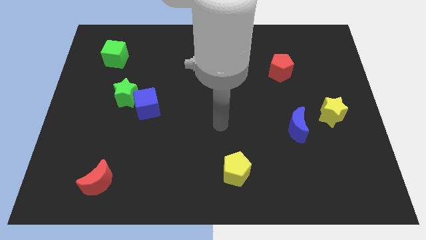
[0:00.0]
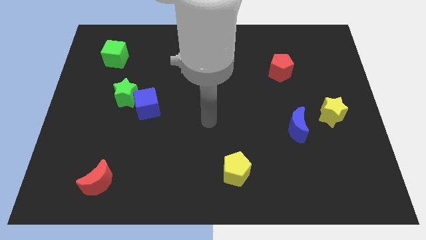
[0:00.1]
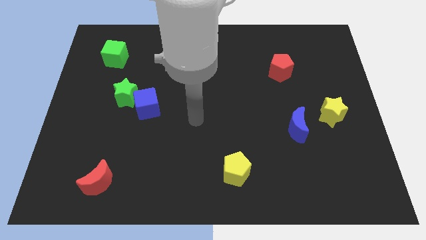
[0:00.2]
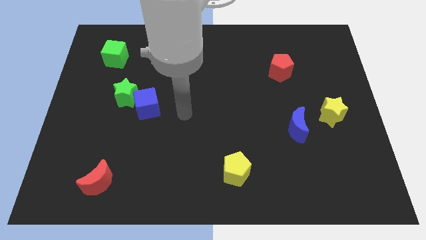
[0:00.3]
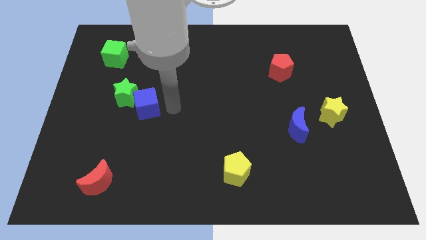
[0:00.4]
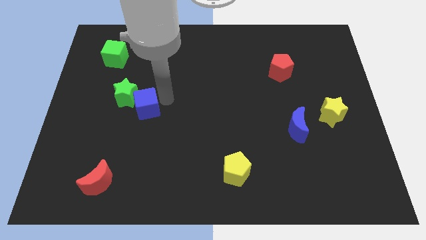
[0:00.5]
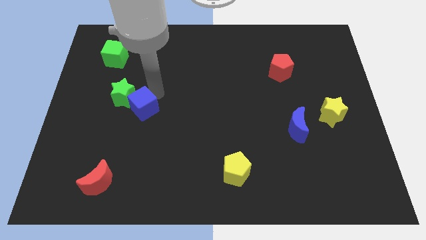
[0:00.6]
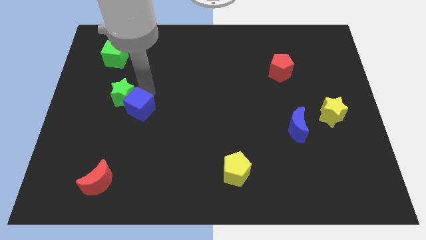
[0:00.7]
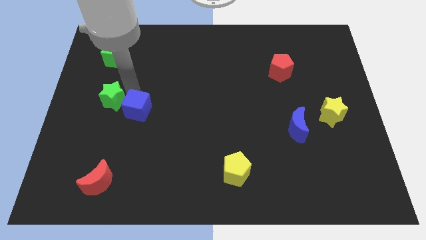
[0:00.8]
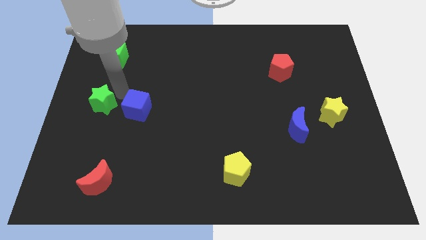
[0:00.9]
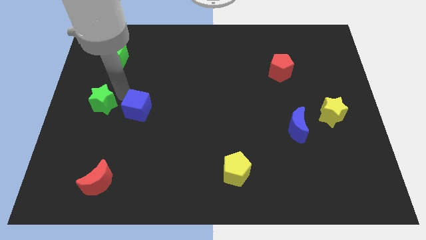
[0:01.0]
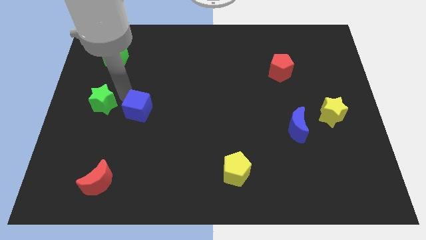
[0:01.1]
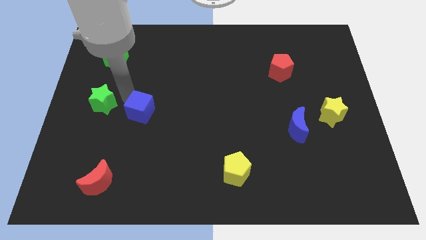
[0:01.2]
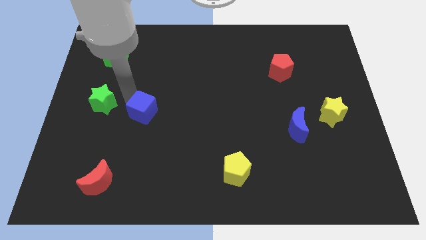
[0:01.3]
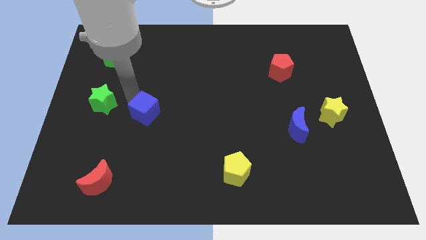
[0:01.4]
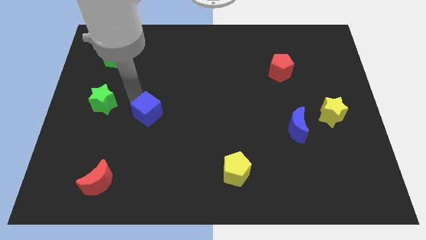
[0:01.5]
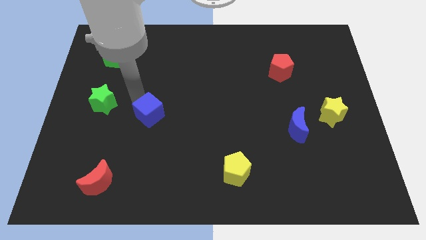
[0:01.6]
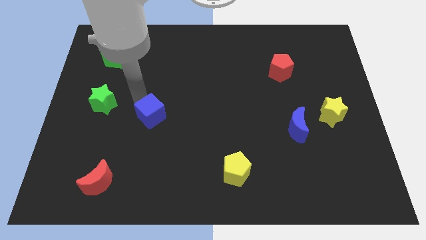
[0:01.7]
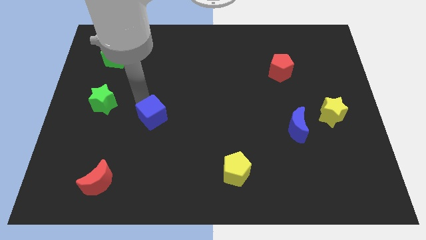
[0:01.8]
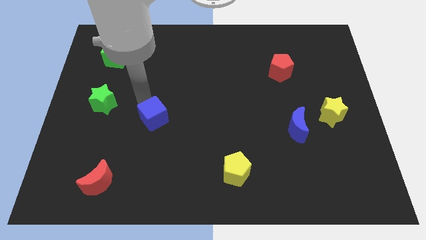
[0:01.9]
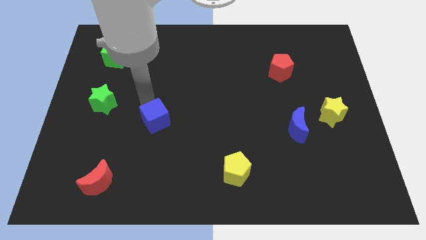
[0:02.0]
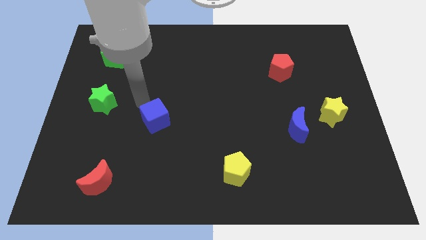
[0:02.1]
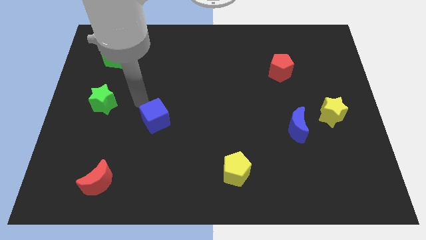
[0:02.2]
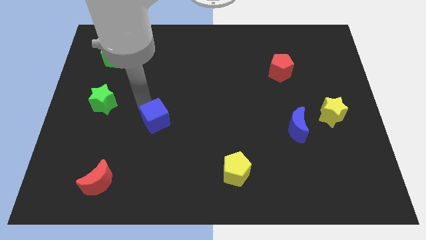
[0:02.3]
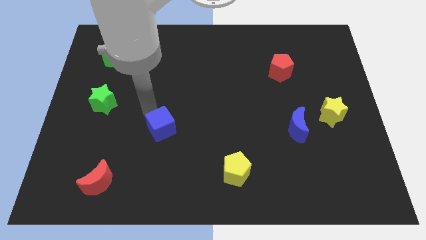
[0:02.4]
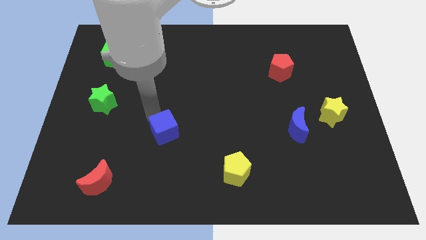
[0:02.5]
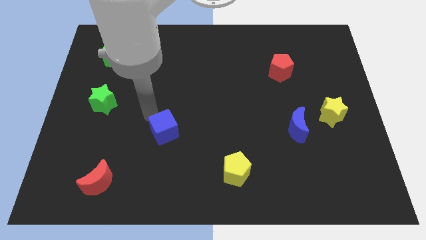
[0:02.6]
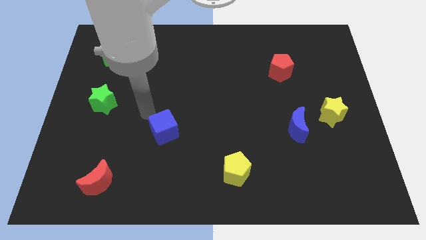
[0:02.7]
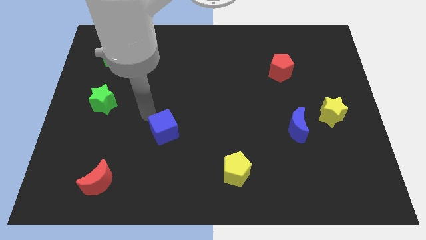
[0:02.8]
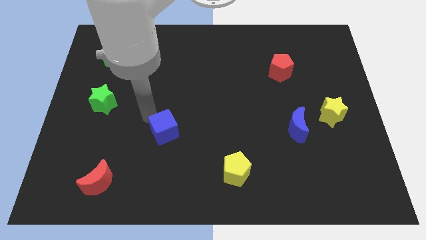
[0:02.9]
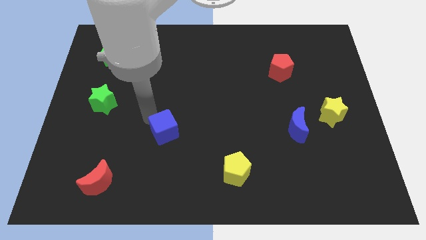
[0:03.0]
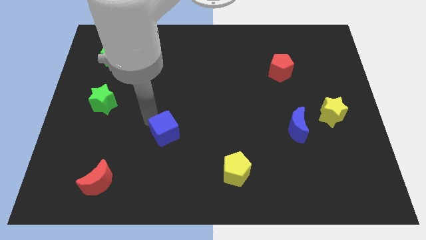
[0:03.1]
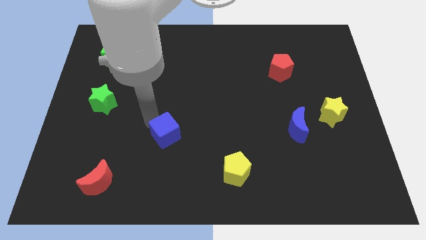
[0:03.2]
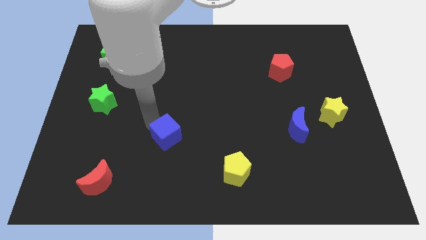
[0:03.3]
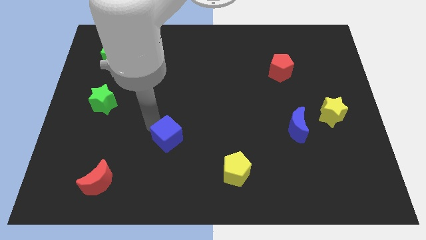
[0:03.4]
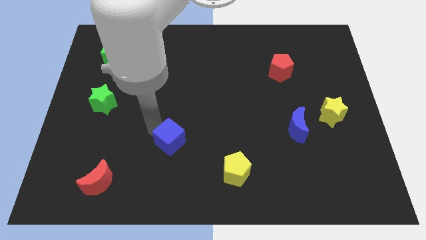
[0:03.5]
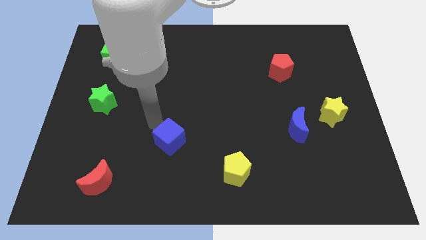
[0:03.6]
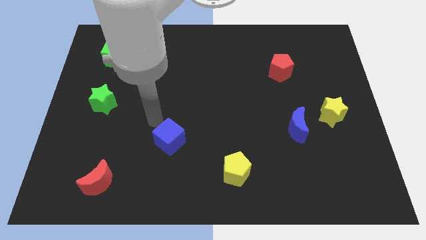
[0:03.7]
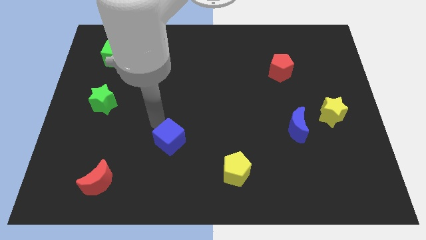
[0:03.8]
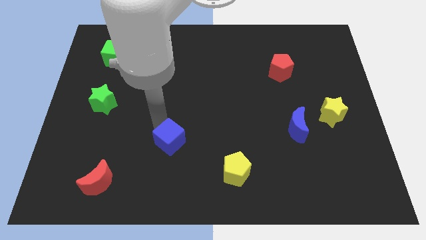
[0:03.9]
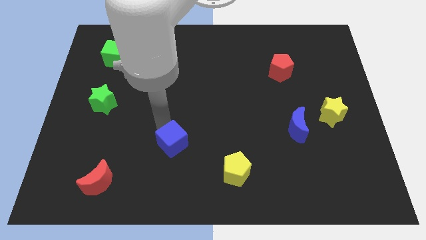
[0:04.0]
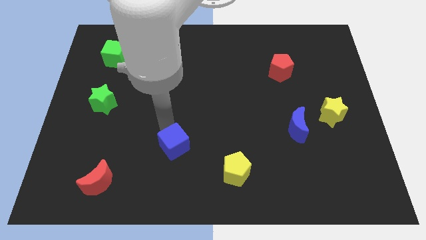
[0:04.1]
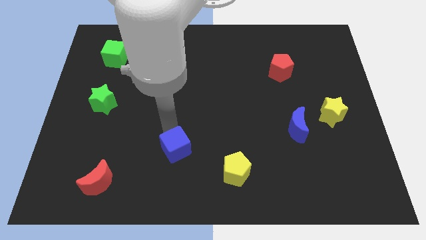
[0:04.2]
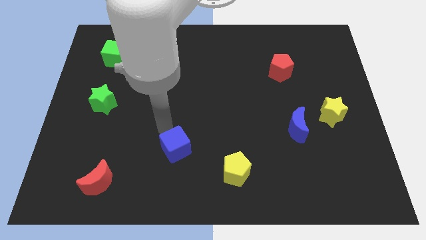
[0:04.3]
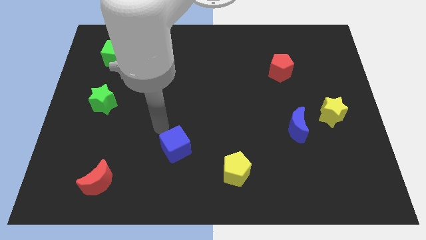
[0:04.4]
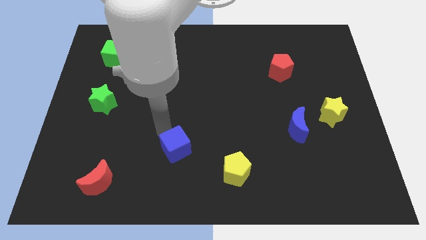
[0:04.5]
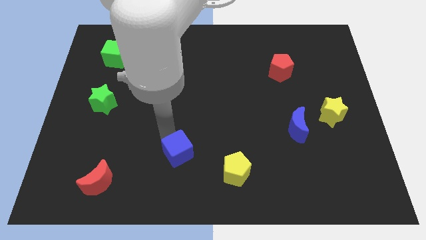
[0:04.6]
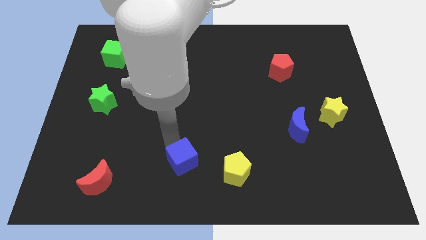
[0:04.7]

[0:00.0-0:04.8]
slide the blue cube to the bottom side
